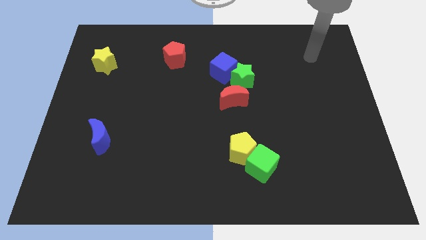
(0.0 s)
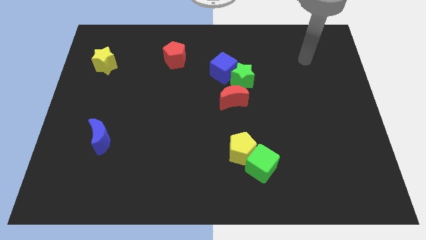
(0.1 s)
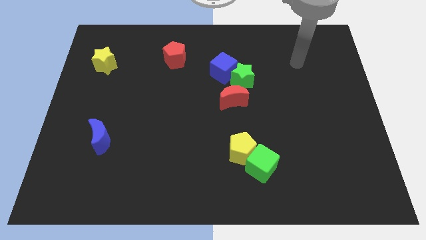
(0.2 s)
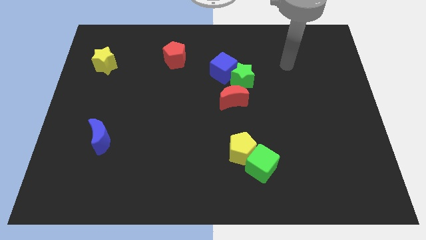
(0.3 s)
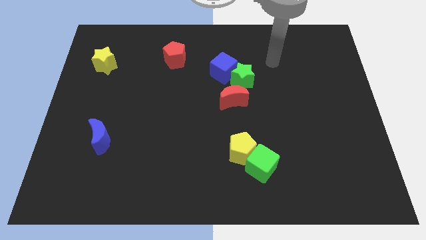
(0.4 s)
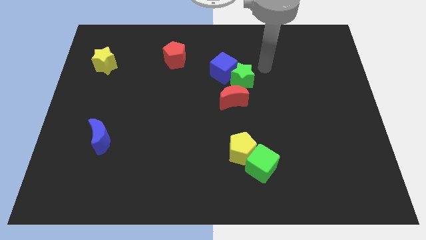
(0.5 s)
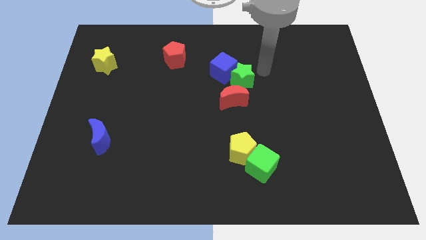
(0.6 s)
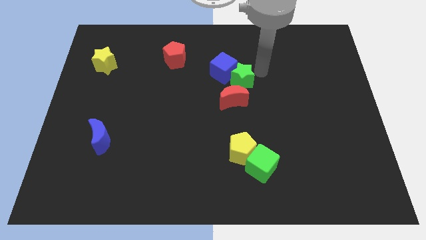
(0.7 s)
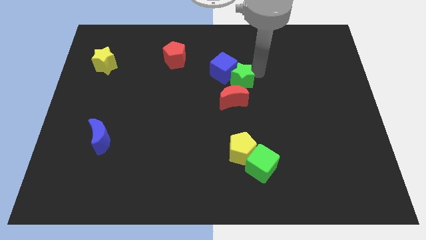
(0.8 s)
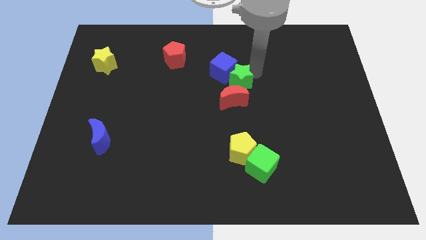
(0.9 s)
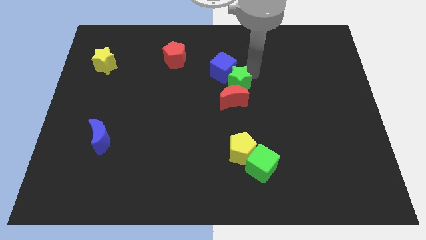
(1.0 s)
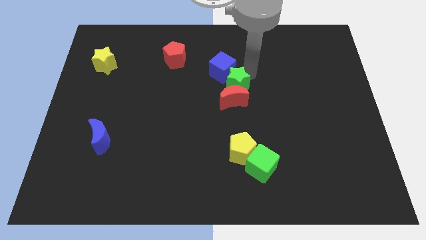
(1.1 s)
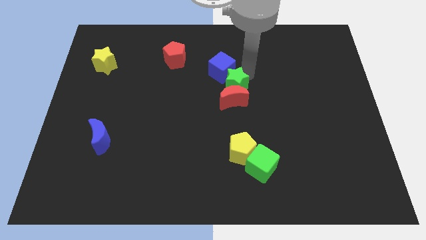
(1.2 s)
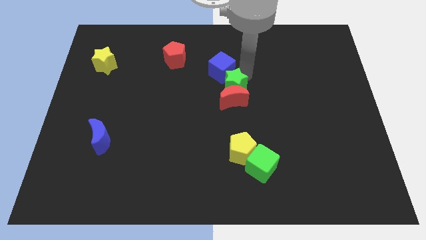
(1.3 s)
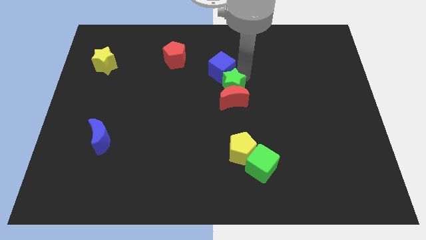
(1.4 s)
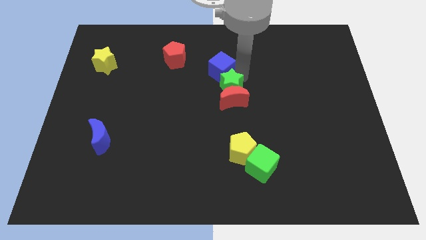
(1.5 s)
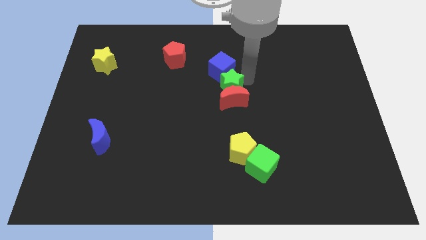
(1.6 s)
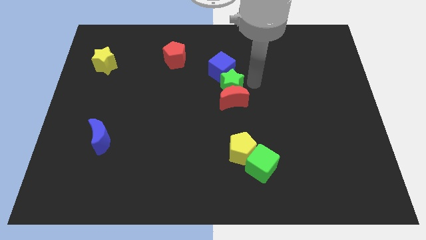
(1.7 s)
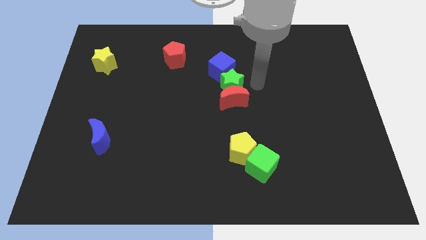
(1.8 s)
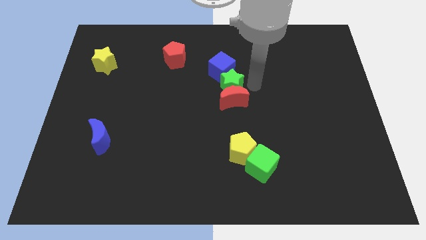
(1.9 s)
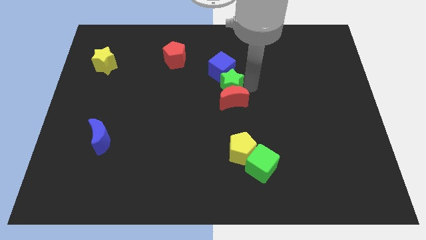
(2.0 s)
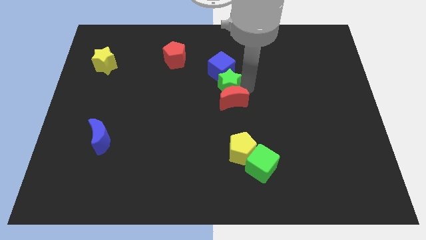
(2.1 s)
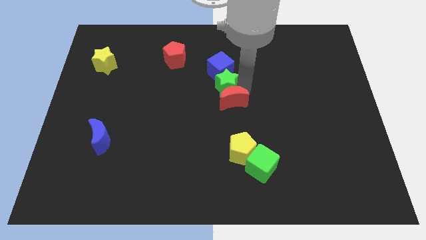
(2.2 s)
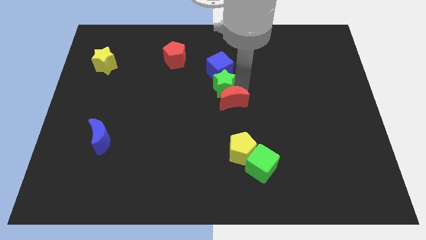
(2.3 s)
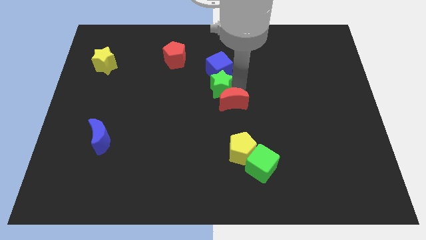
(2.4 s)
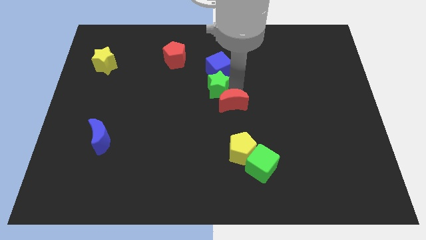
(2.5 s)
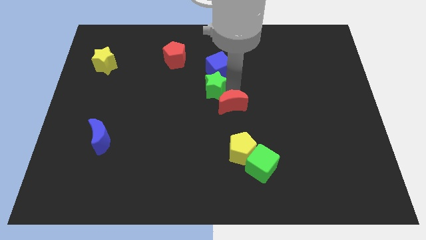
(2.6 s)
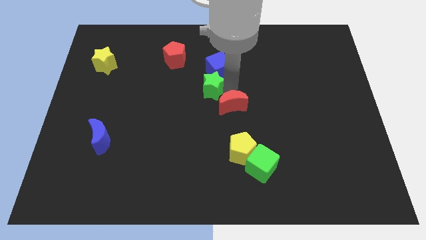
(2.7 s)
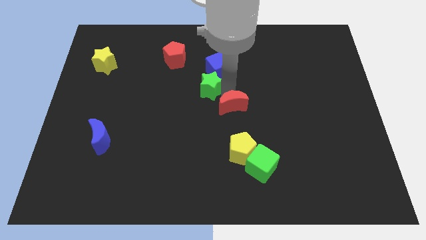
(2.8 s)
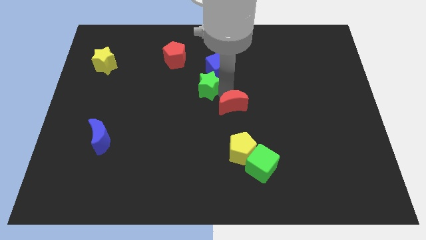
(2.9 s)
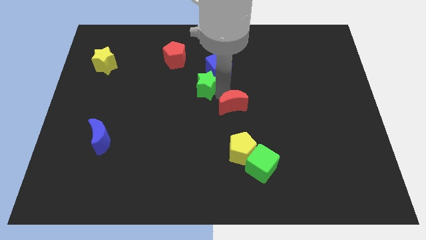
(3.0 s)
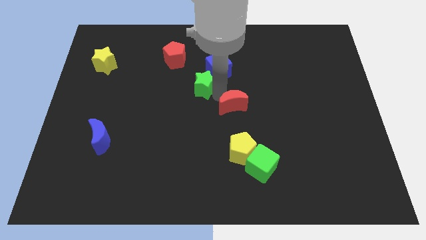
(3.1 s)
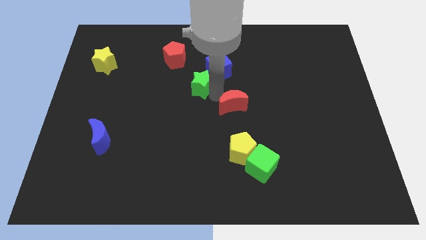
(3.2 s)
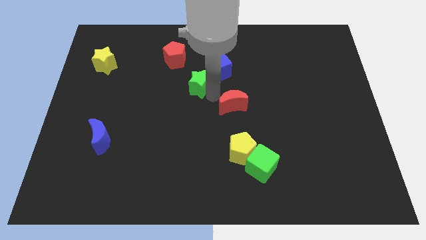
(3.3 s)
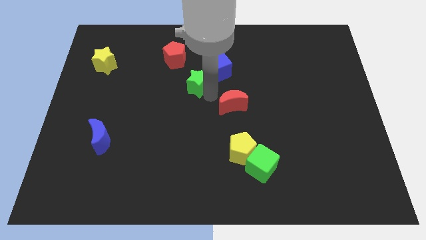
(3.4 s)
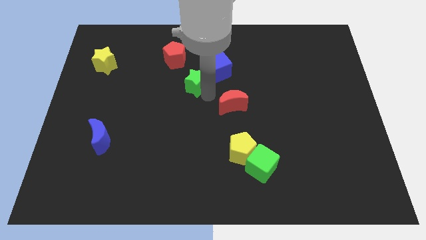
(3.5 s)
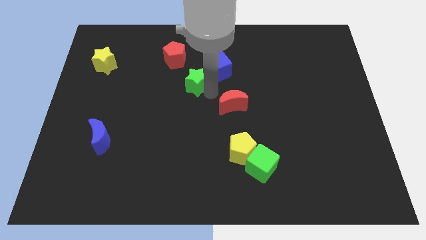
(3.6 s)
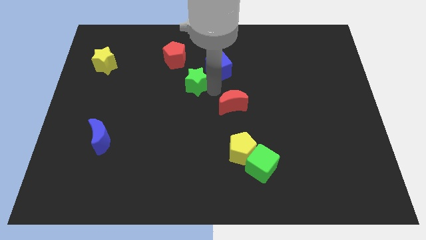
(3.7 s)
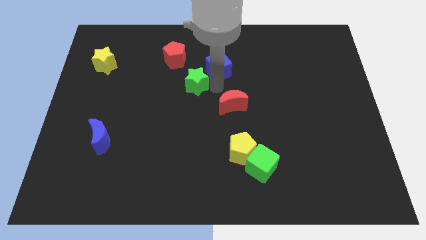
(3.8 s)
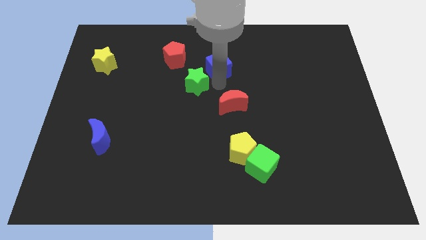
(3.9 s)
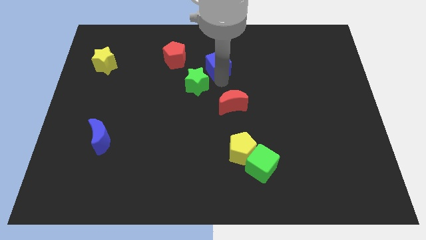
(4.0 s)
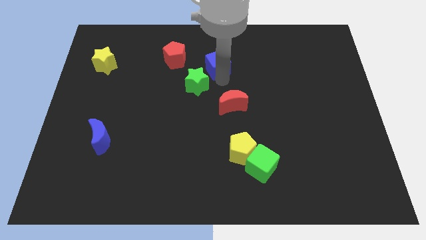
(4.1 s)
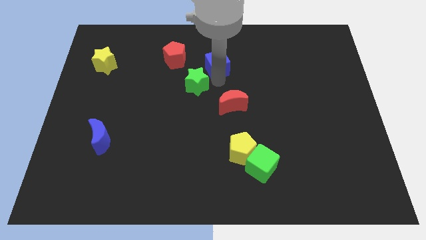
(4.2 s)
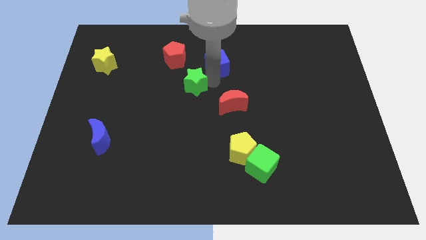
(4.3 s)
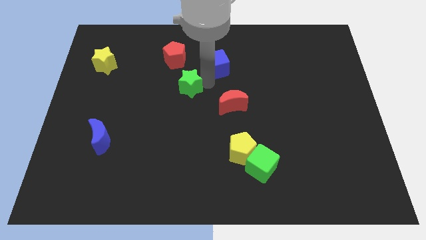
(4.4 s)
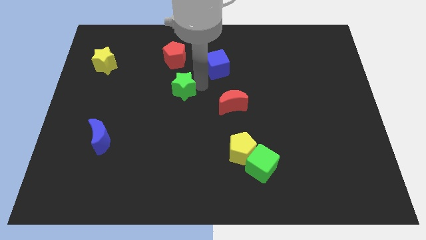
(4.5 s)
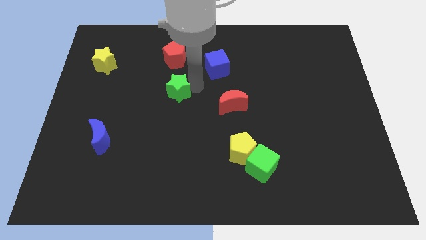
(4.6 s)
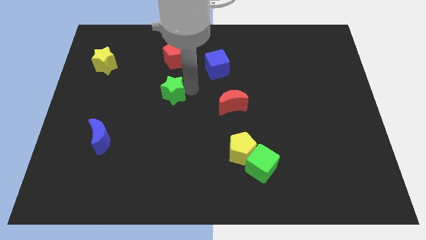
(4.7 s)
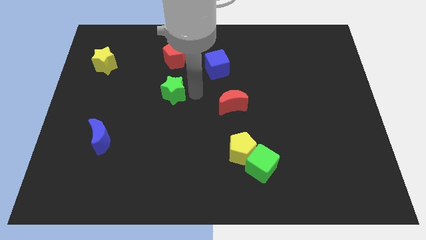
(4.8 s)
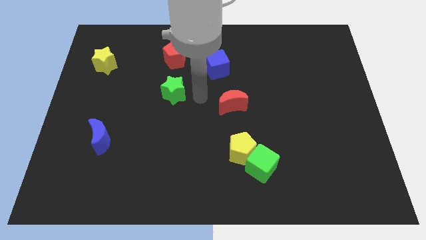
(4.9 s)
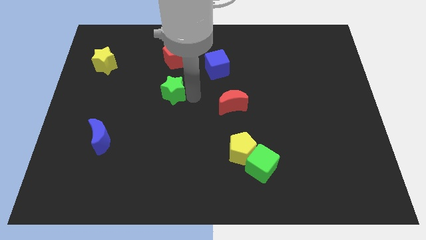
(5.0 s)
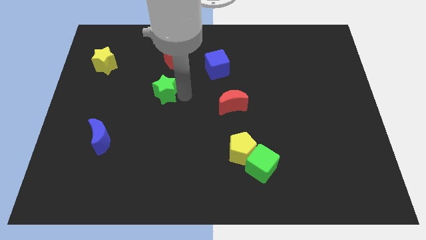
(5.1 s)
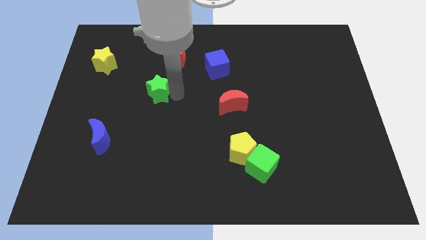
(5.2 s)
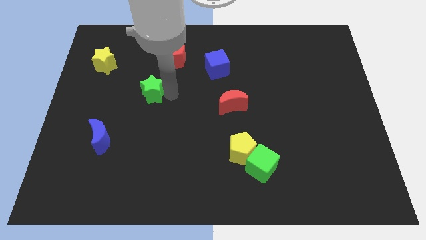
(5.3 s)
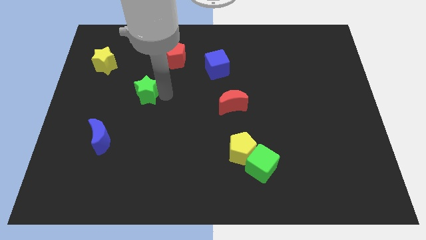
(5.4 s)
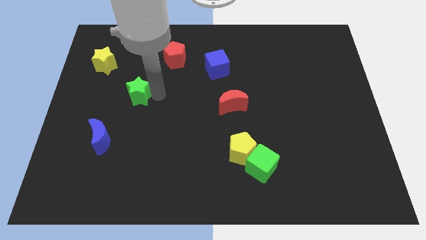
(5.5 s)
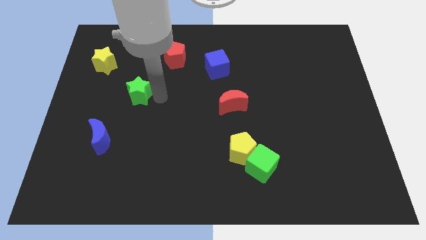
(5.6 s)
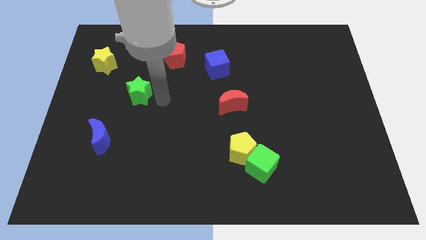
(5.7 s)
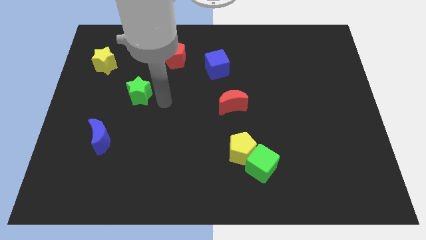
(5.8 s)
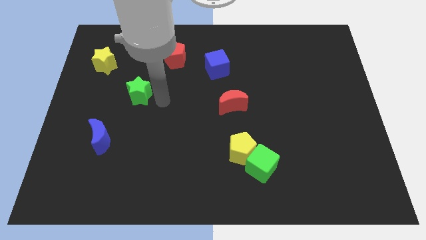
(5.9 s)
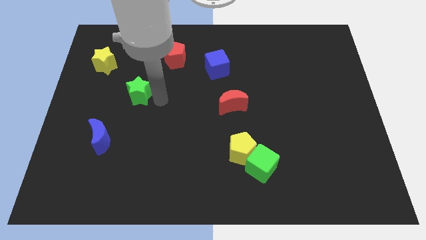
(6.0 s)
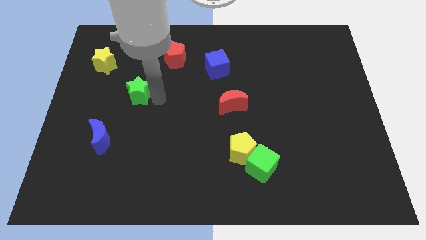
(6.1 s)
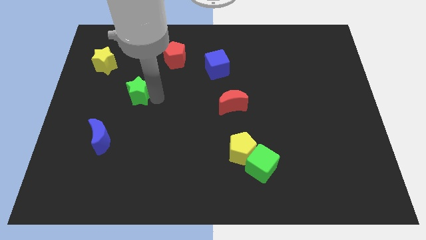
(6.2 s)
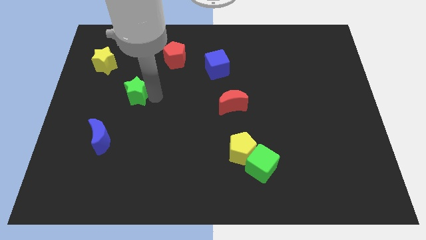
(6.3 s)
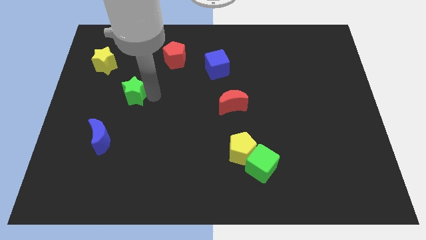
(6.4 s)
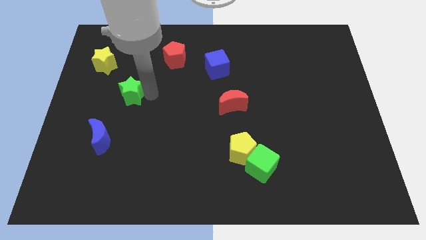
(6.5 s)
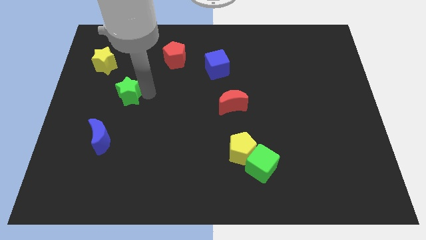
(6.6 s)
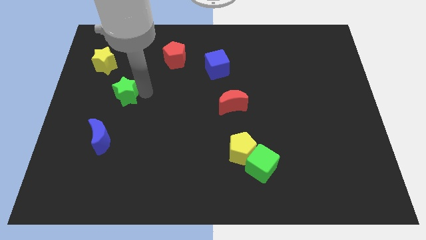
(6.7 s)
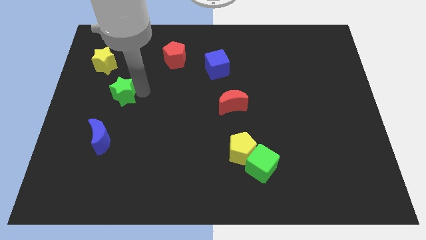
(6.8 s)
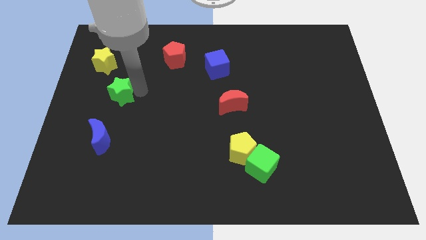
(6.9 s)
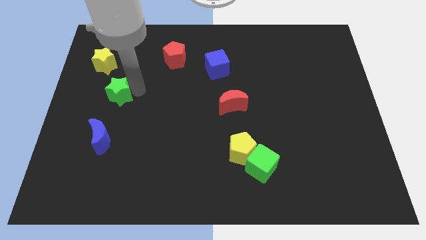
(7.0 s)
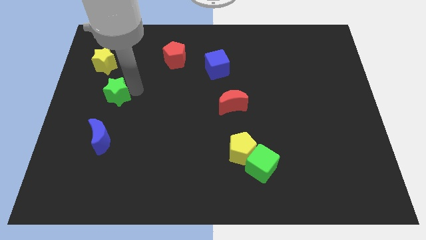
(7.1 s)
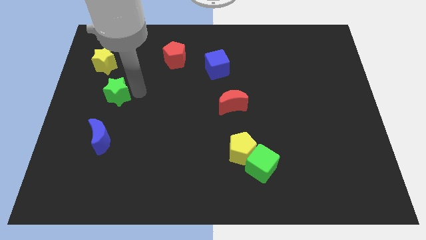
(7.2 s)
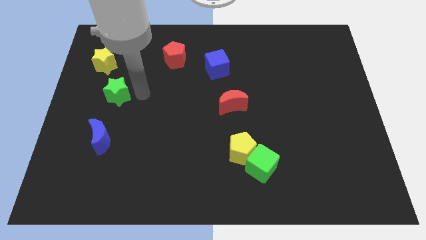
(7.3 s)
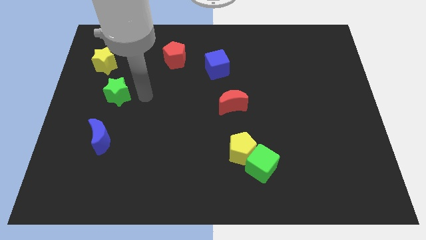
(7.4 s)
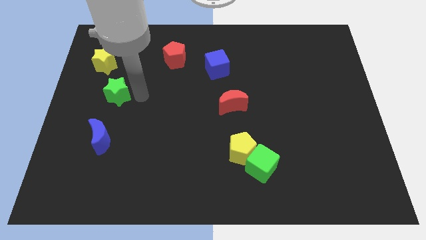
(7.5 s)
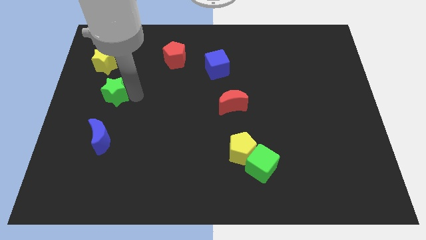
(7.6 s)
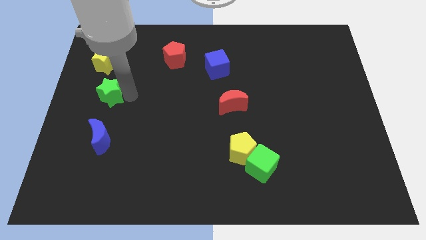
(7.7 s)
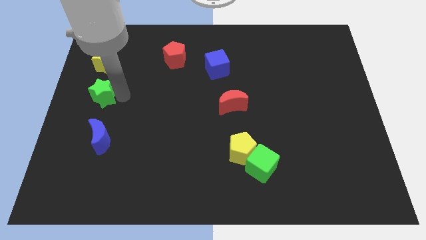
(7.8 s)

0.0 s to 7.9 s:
move the green star to the center left
